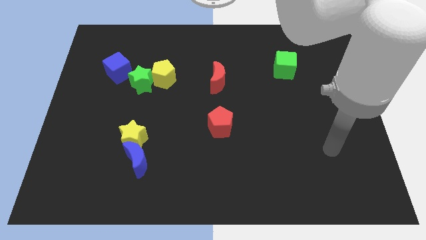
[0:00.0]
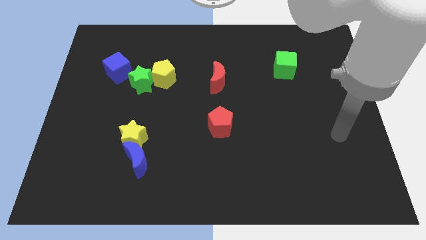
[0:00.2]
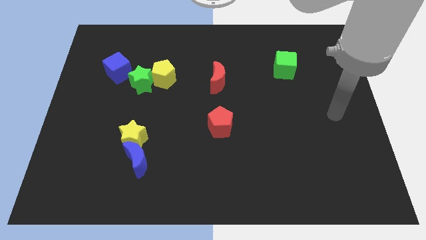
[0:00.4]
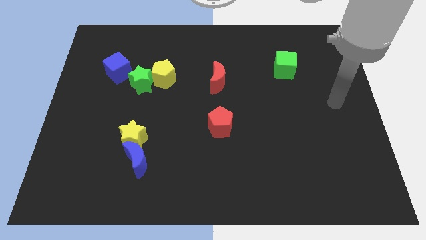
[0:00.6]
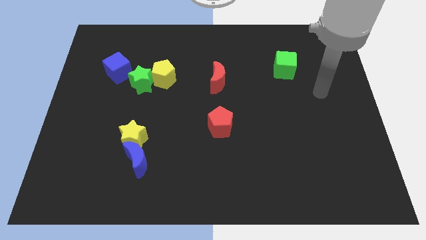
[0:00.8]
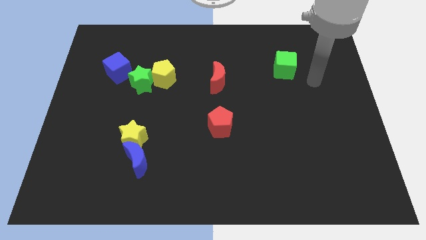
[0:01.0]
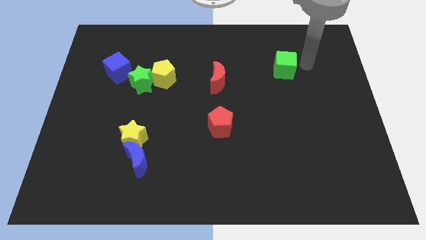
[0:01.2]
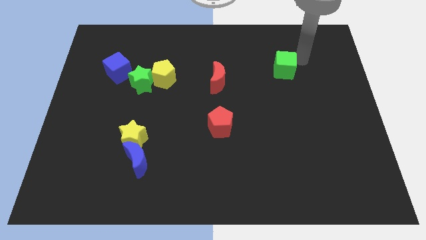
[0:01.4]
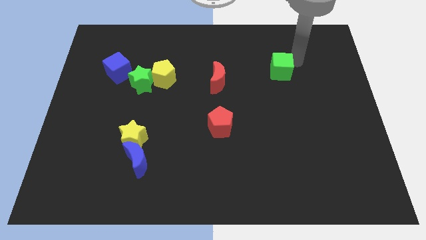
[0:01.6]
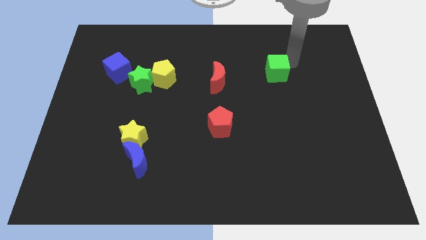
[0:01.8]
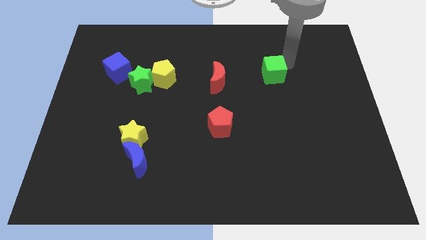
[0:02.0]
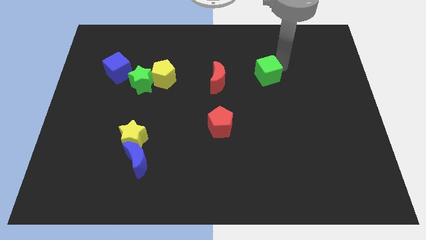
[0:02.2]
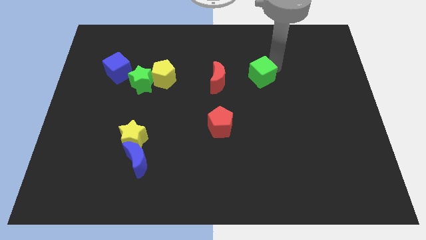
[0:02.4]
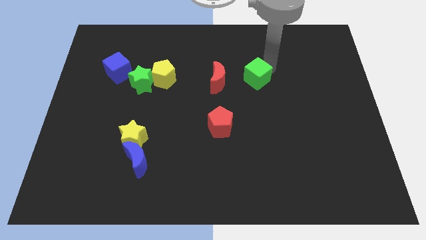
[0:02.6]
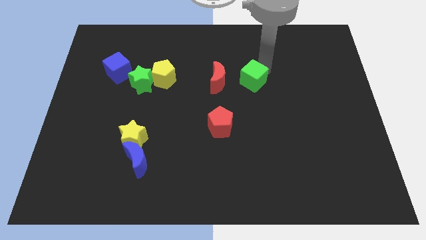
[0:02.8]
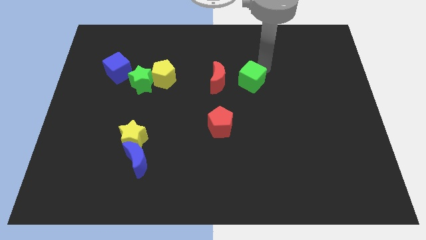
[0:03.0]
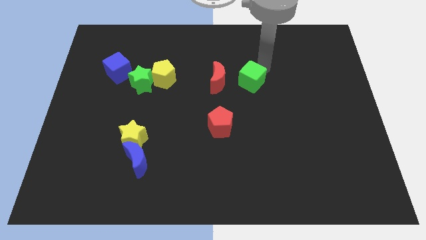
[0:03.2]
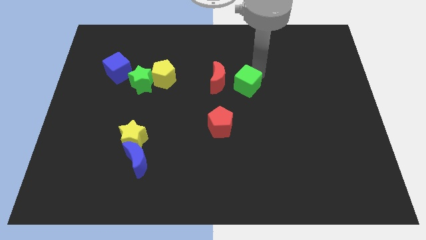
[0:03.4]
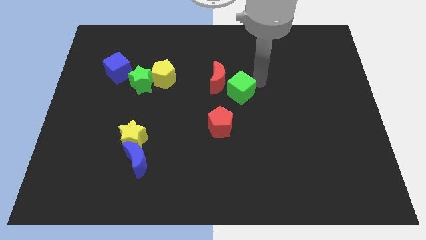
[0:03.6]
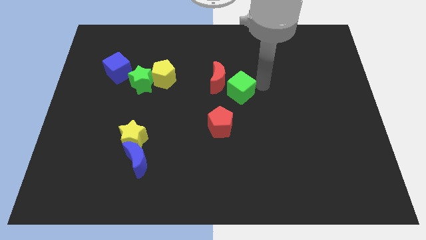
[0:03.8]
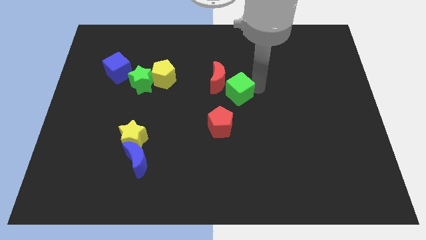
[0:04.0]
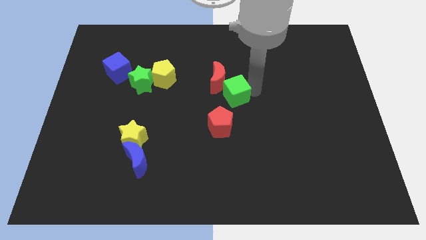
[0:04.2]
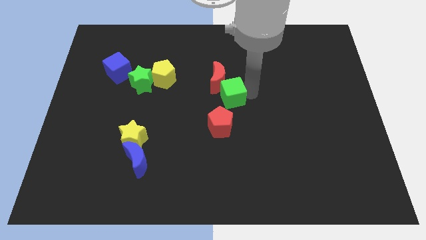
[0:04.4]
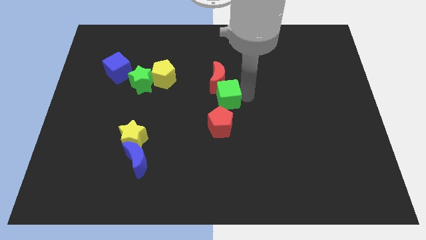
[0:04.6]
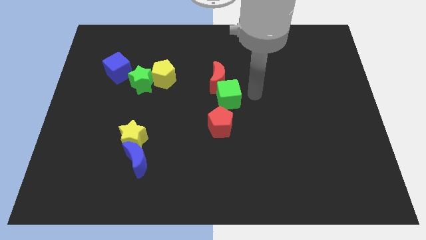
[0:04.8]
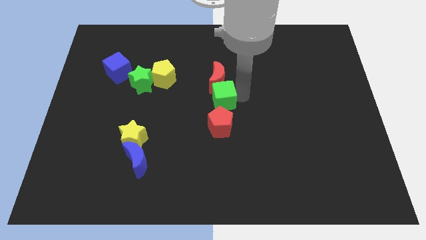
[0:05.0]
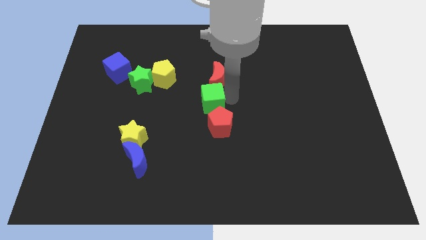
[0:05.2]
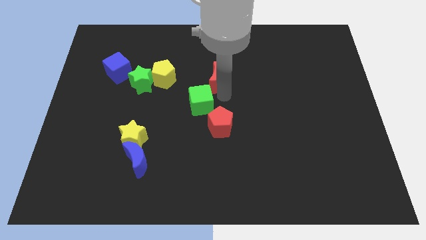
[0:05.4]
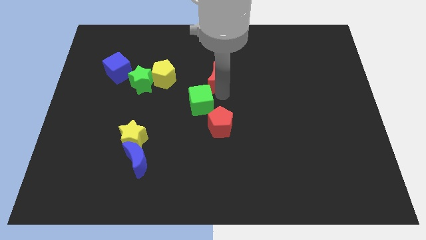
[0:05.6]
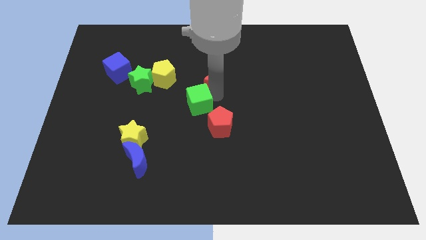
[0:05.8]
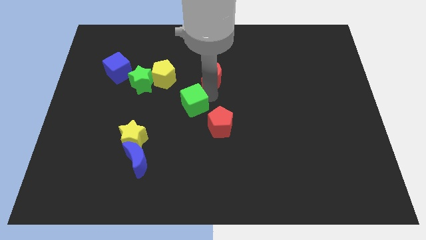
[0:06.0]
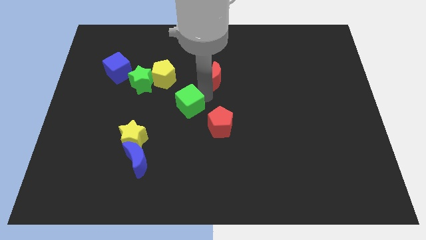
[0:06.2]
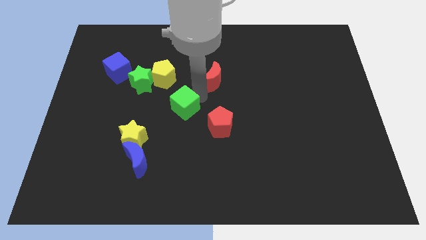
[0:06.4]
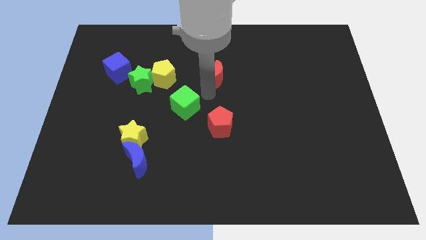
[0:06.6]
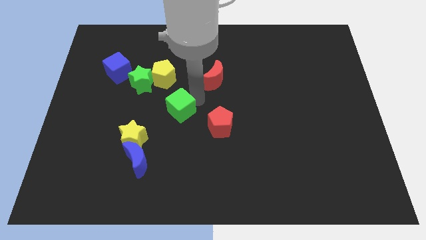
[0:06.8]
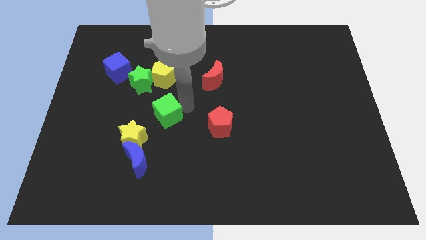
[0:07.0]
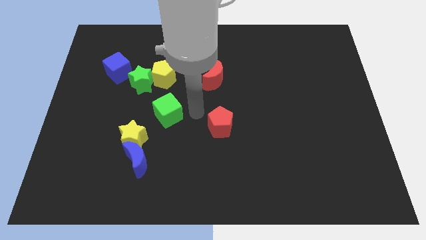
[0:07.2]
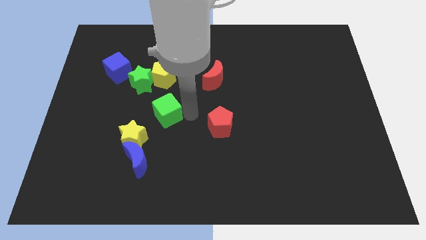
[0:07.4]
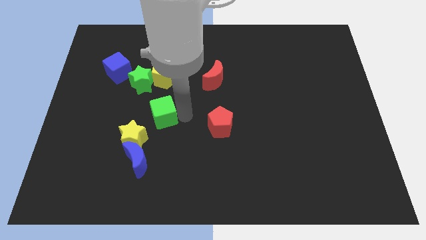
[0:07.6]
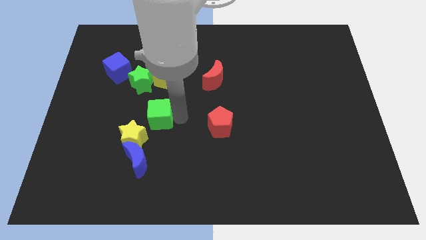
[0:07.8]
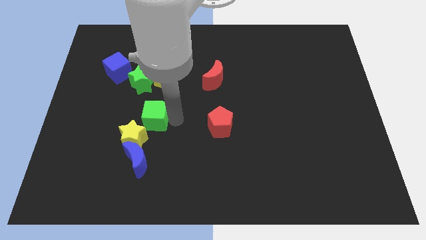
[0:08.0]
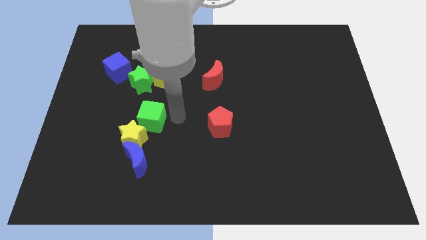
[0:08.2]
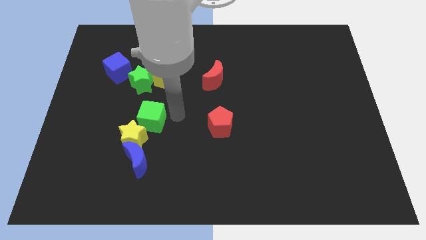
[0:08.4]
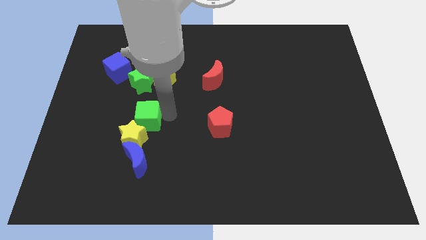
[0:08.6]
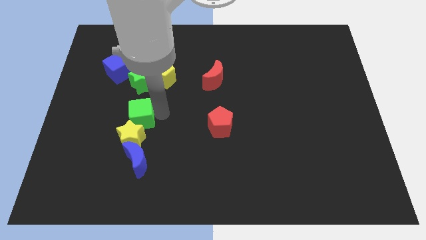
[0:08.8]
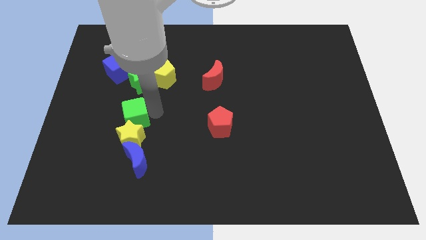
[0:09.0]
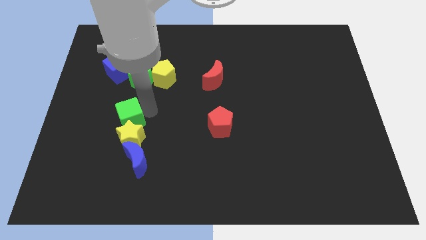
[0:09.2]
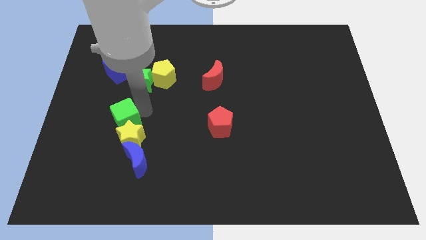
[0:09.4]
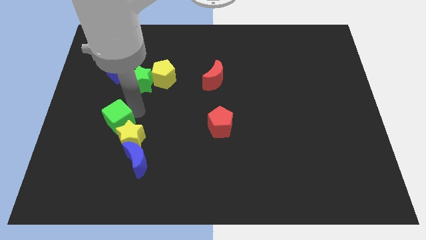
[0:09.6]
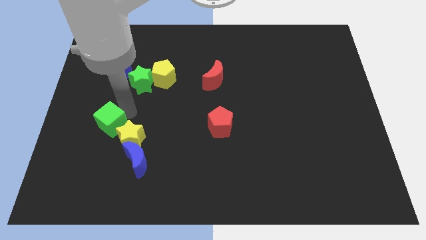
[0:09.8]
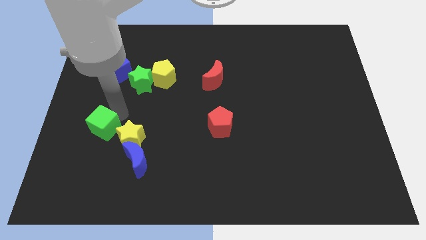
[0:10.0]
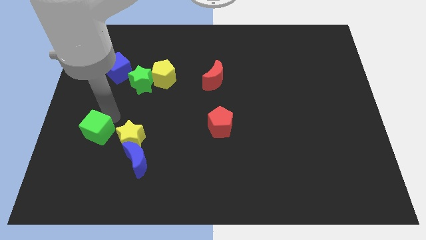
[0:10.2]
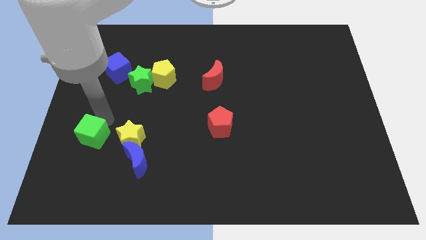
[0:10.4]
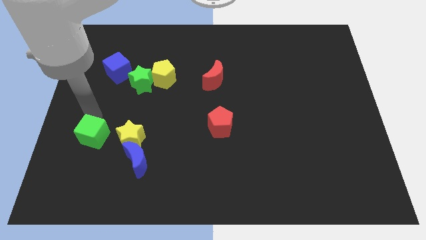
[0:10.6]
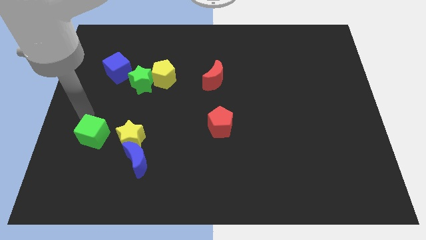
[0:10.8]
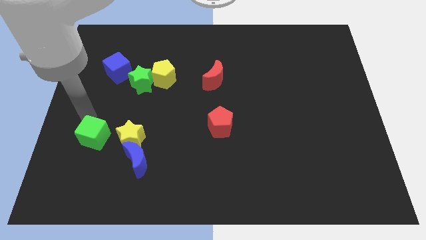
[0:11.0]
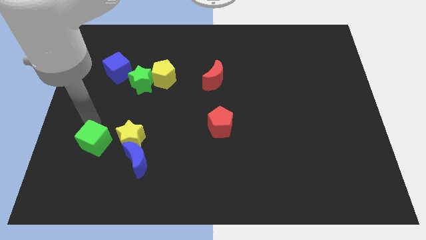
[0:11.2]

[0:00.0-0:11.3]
put the green cube to the bottom left side of the yellow star

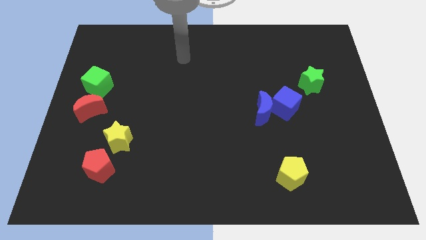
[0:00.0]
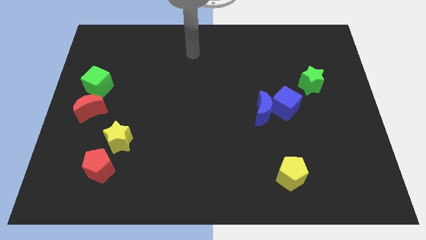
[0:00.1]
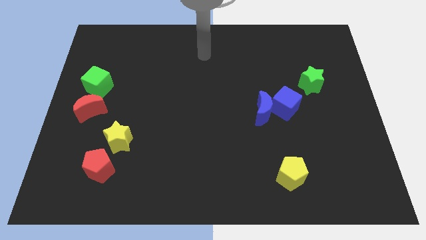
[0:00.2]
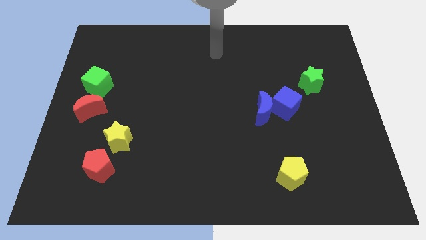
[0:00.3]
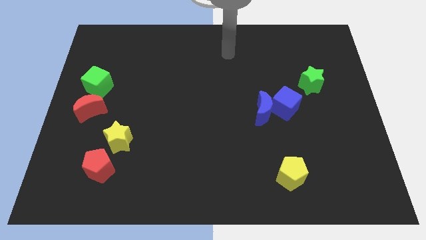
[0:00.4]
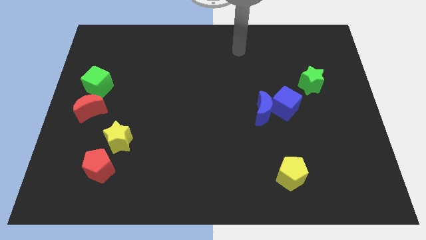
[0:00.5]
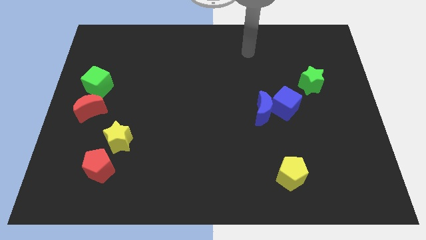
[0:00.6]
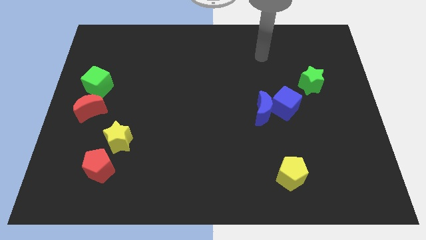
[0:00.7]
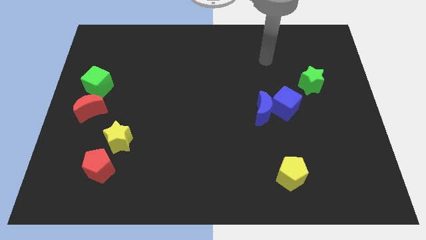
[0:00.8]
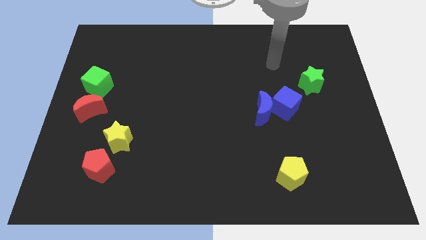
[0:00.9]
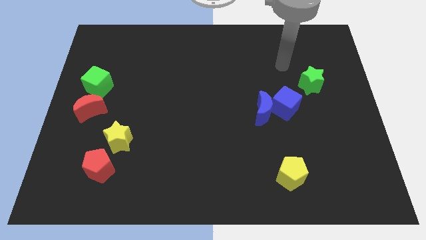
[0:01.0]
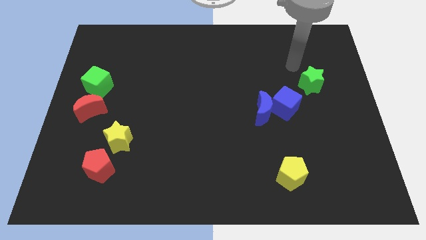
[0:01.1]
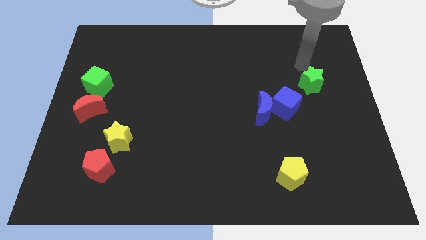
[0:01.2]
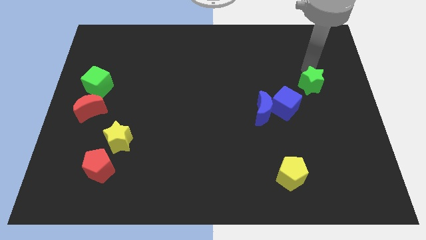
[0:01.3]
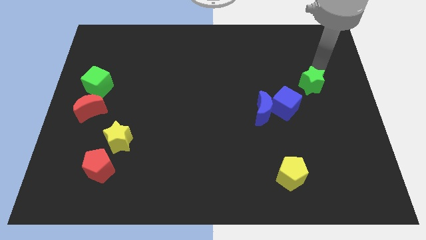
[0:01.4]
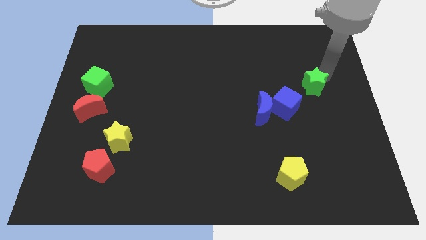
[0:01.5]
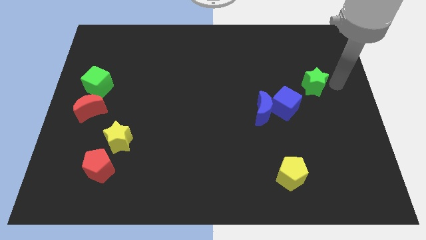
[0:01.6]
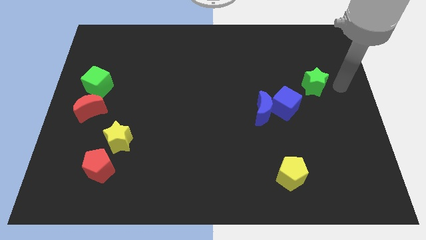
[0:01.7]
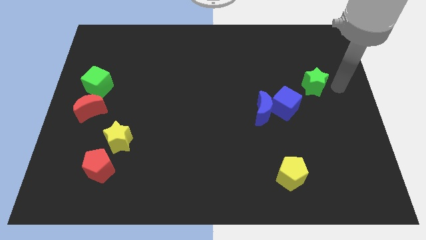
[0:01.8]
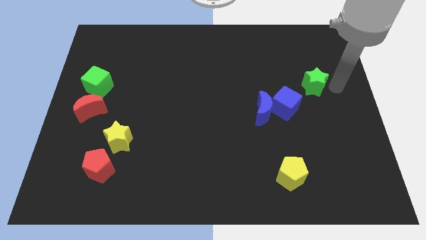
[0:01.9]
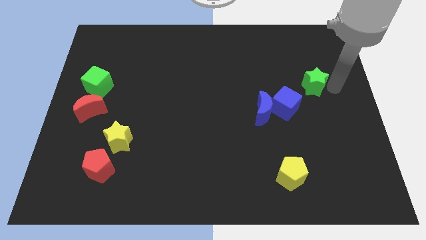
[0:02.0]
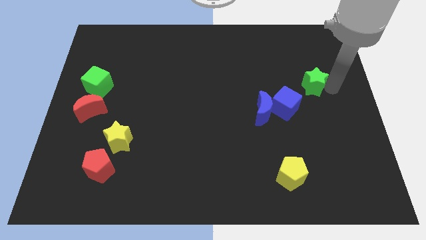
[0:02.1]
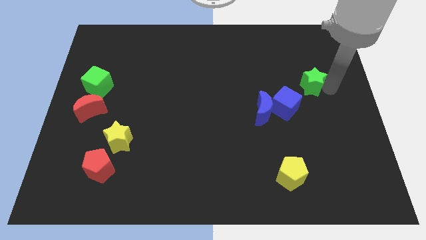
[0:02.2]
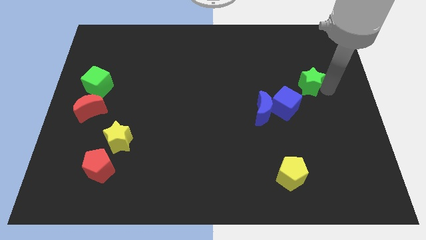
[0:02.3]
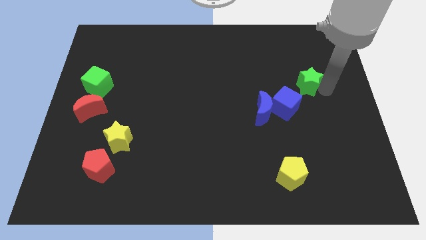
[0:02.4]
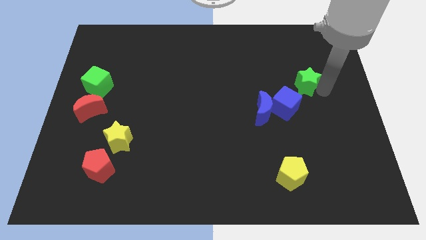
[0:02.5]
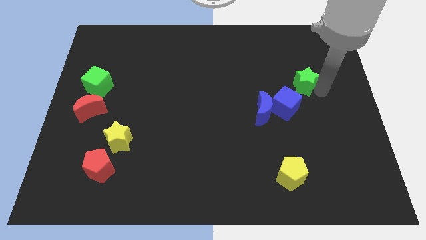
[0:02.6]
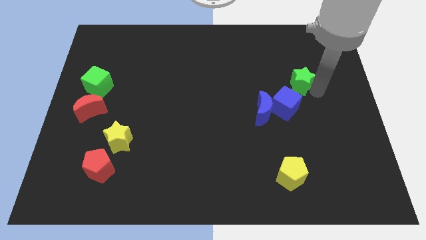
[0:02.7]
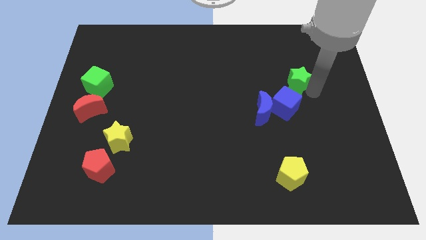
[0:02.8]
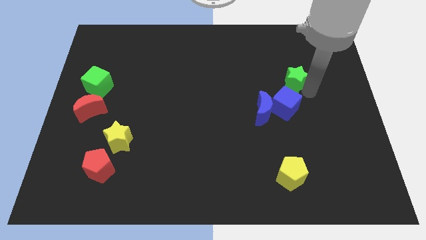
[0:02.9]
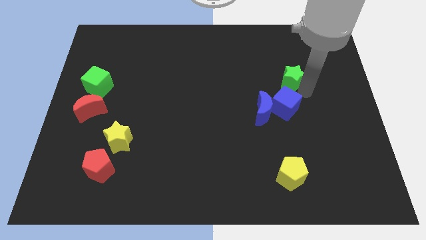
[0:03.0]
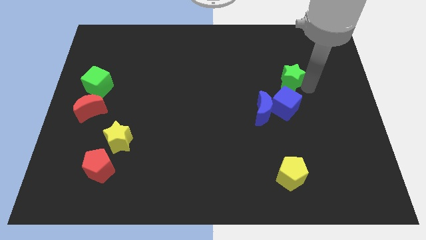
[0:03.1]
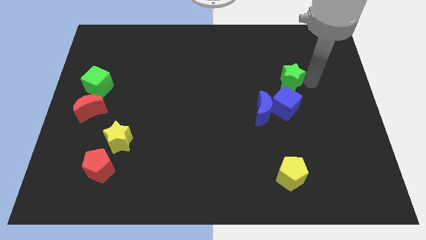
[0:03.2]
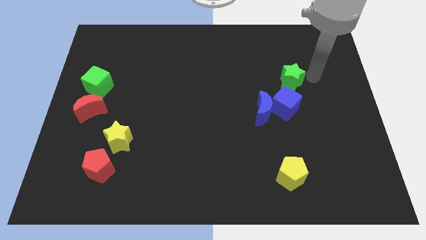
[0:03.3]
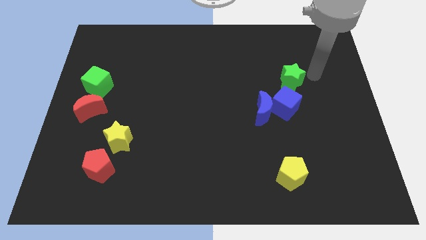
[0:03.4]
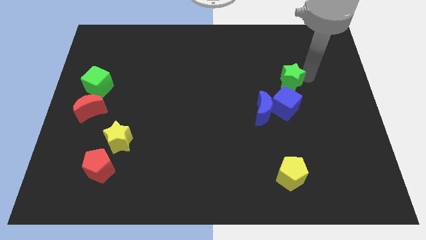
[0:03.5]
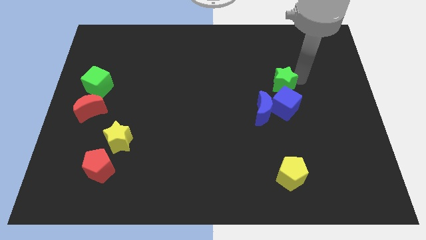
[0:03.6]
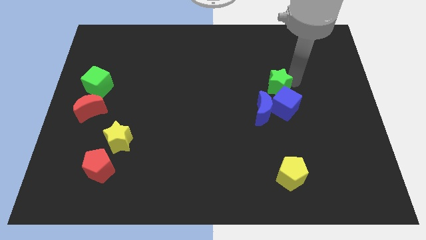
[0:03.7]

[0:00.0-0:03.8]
put the green star to the top left side of the blue cube
